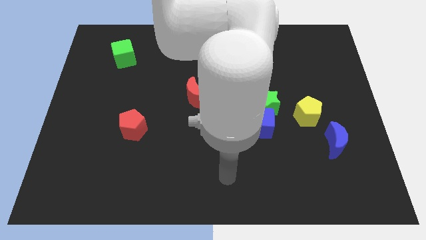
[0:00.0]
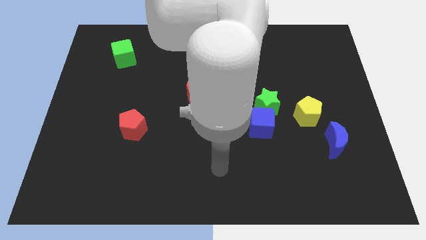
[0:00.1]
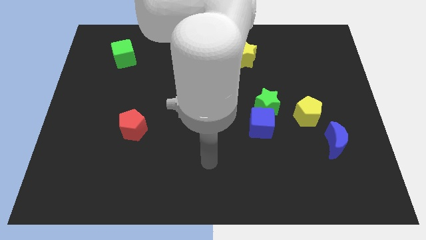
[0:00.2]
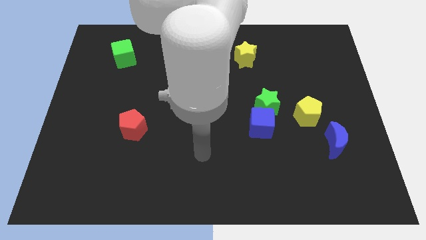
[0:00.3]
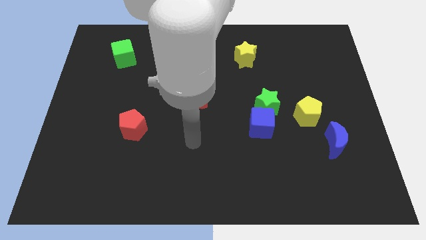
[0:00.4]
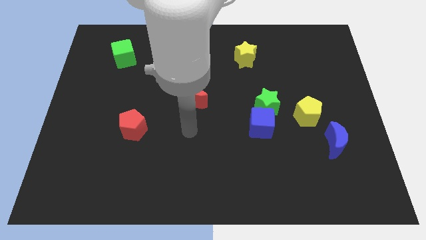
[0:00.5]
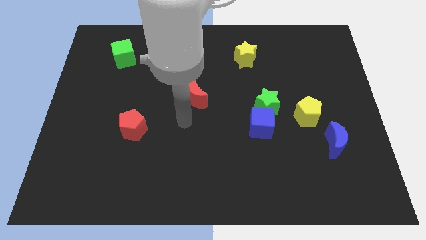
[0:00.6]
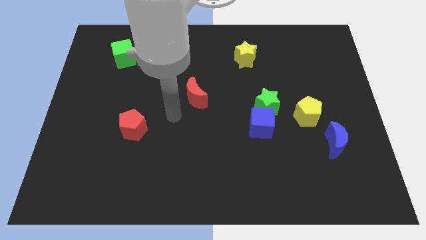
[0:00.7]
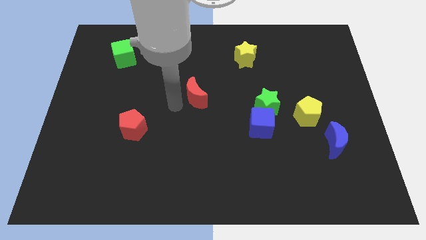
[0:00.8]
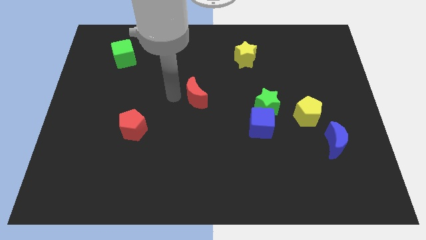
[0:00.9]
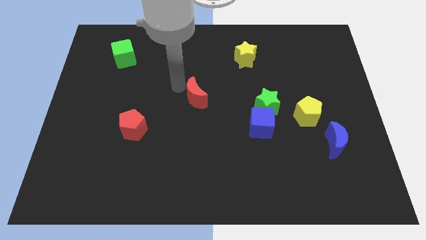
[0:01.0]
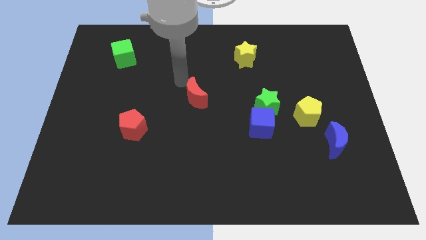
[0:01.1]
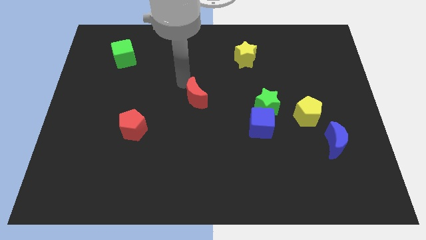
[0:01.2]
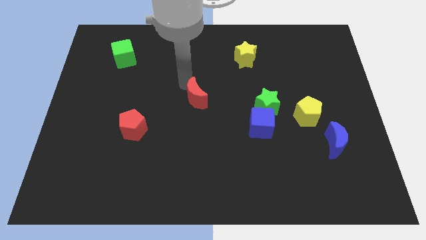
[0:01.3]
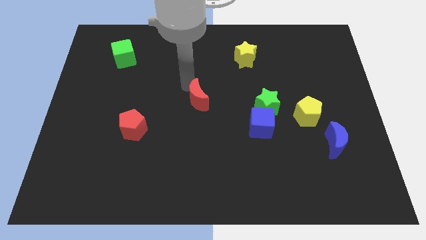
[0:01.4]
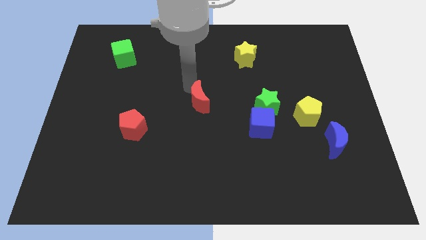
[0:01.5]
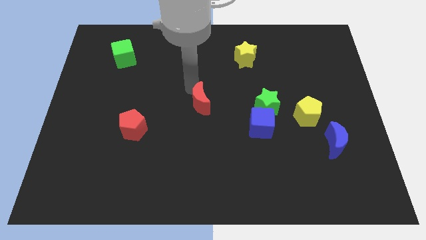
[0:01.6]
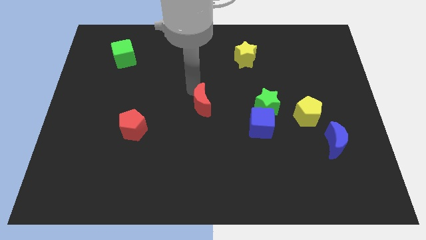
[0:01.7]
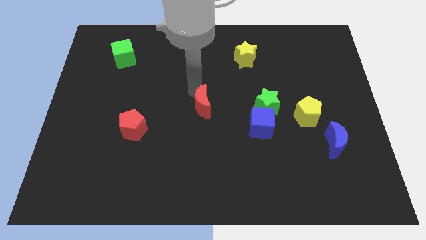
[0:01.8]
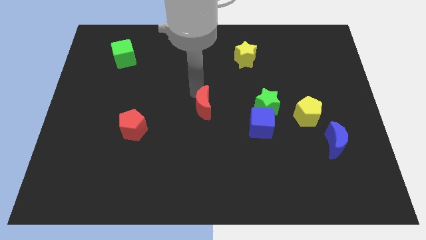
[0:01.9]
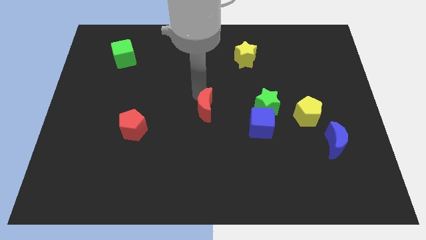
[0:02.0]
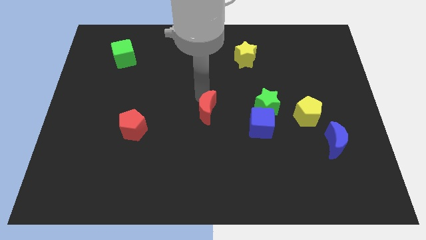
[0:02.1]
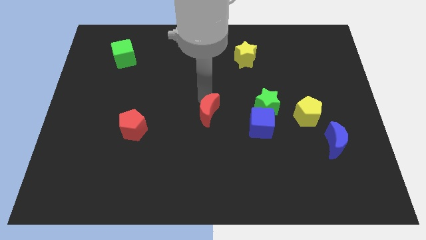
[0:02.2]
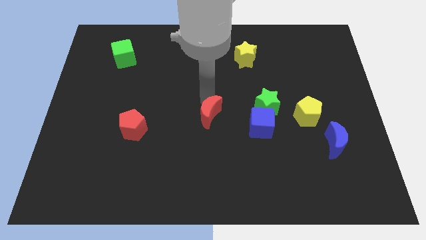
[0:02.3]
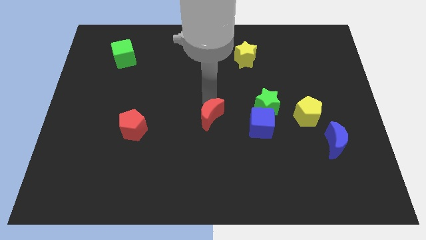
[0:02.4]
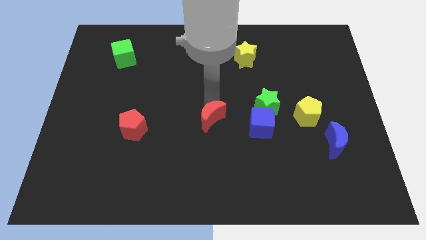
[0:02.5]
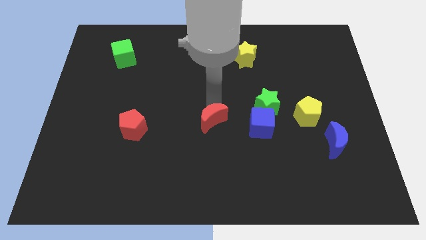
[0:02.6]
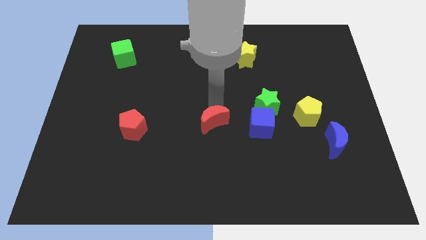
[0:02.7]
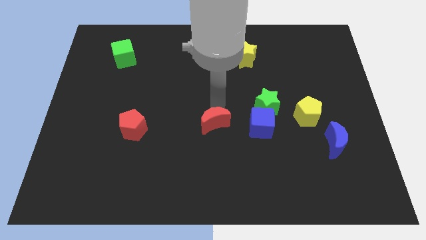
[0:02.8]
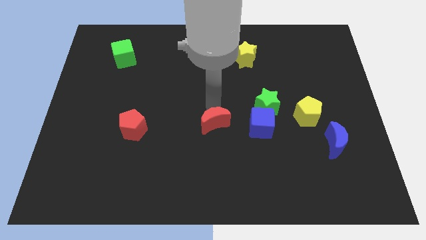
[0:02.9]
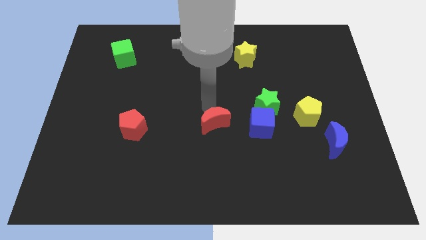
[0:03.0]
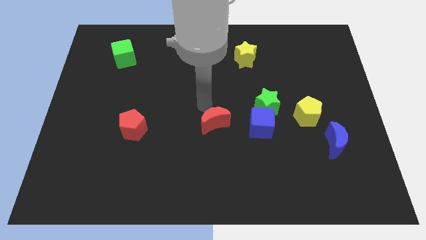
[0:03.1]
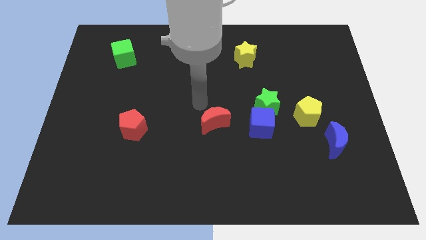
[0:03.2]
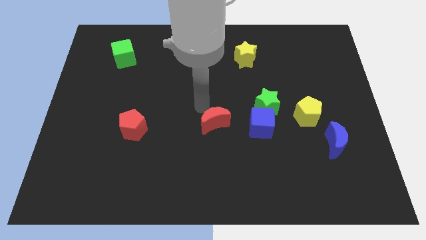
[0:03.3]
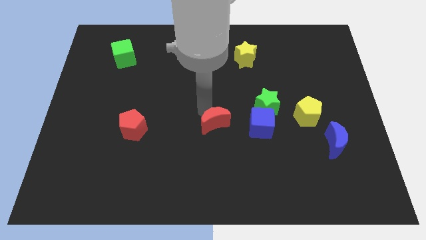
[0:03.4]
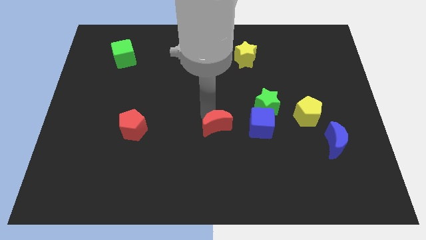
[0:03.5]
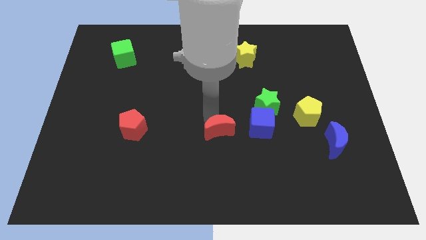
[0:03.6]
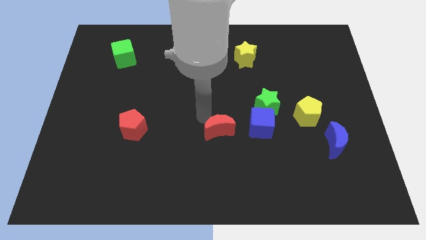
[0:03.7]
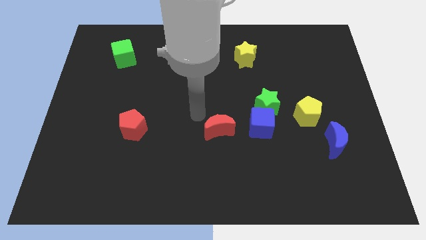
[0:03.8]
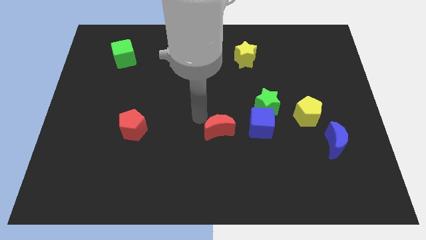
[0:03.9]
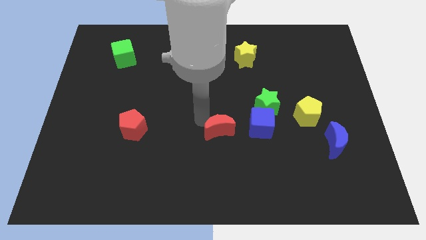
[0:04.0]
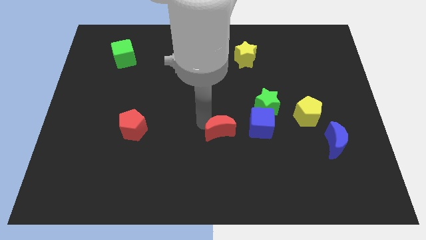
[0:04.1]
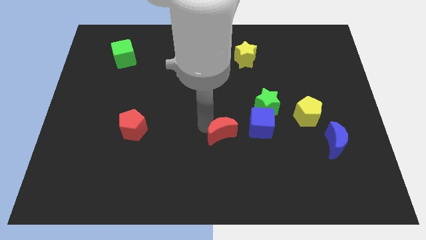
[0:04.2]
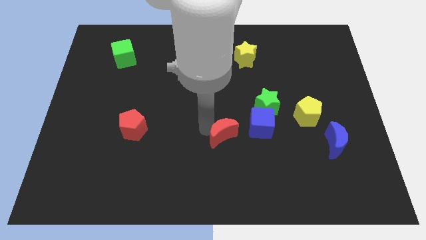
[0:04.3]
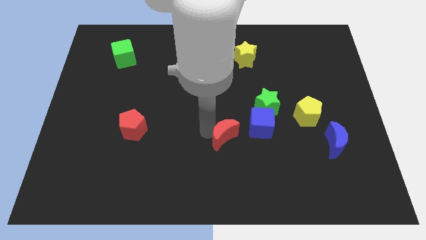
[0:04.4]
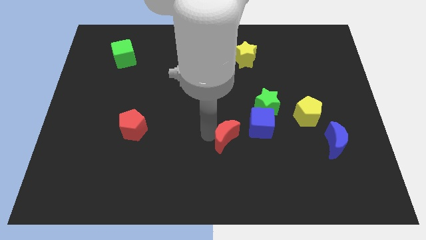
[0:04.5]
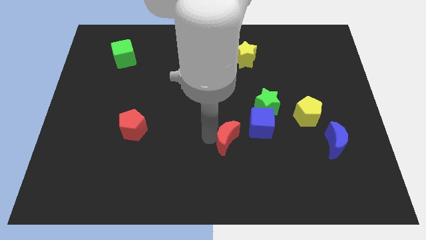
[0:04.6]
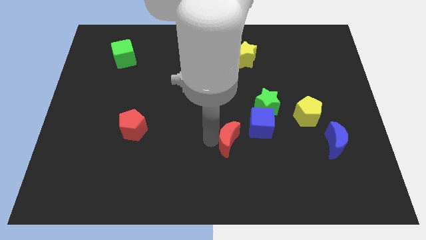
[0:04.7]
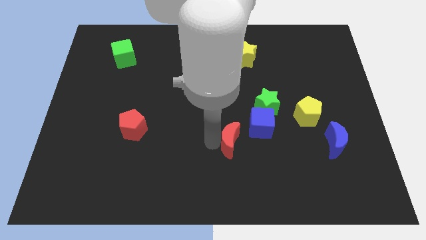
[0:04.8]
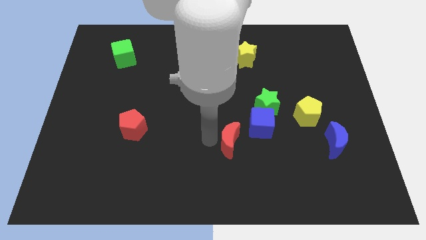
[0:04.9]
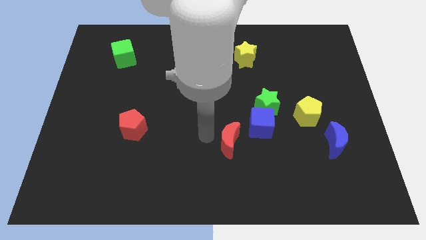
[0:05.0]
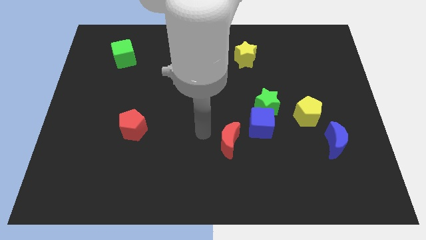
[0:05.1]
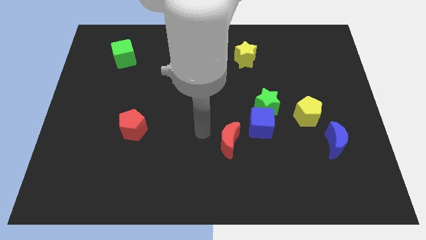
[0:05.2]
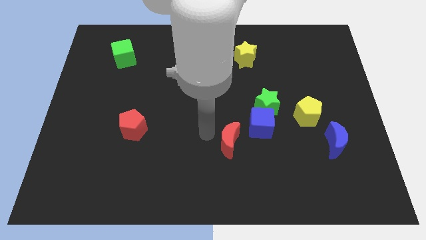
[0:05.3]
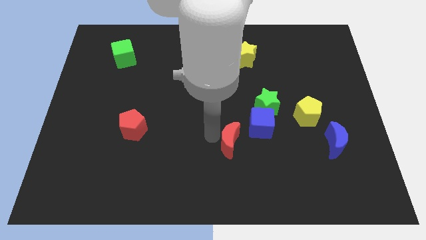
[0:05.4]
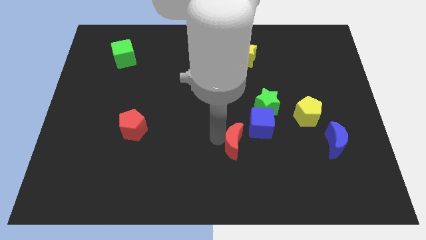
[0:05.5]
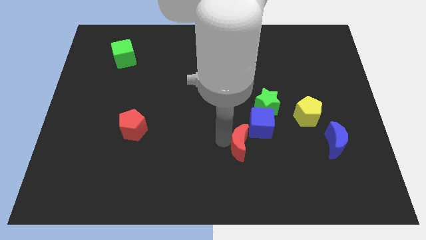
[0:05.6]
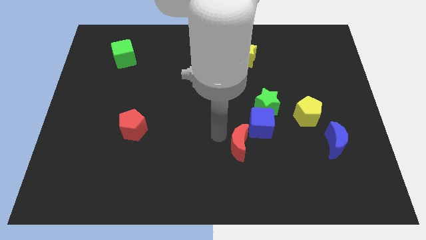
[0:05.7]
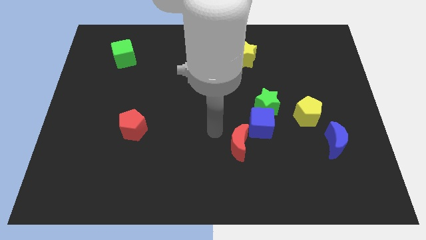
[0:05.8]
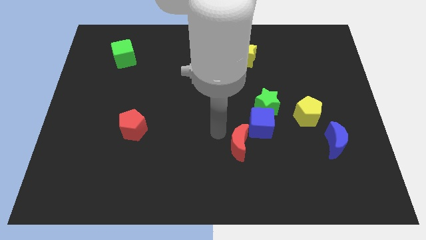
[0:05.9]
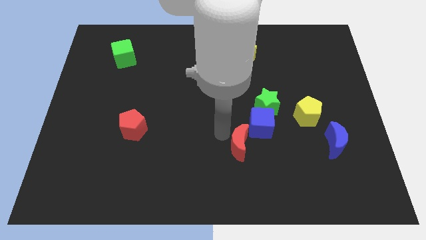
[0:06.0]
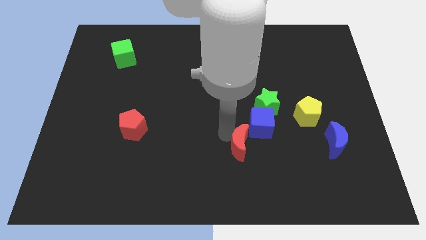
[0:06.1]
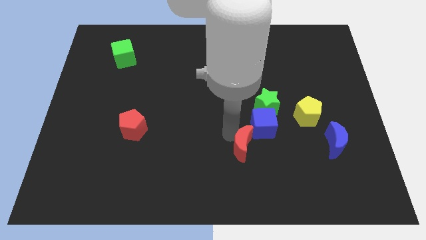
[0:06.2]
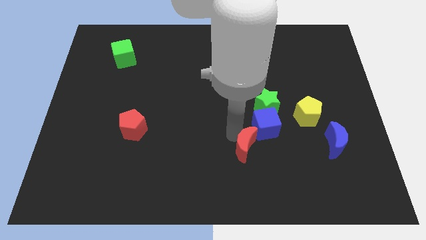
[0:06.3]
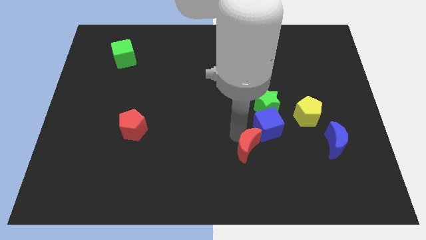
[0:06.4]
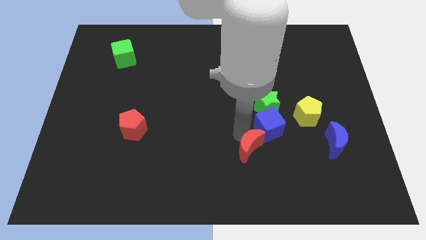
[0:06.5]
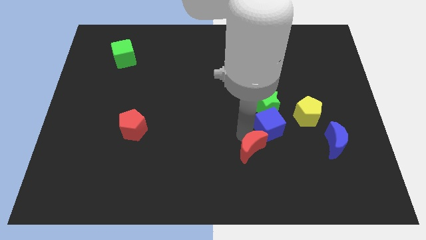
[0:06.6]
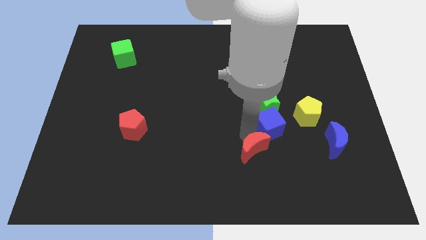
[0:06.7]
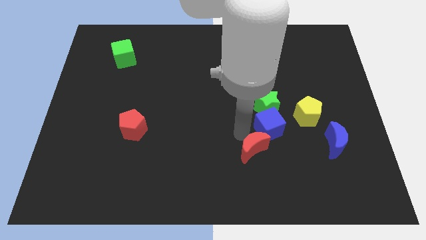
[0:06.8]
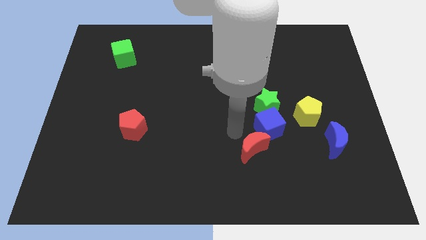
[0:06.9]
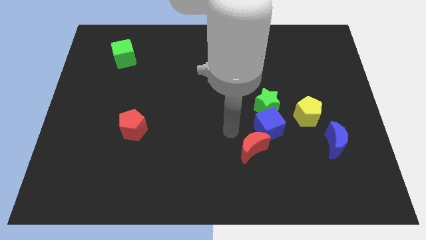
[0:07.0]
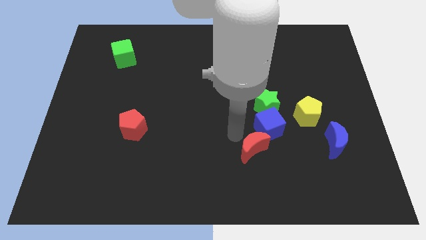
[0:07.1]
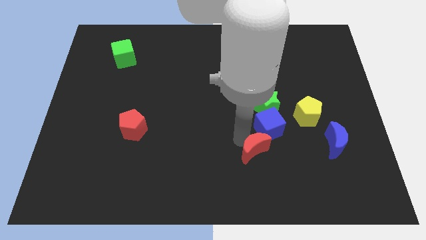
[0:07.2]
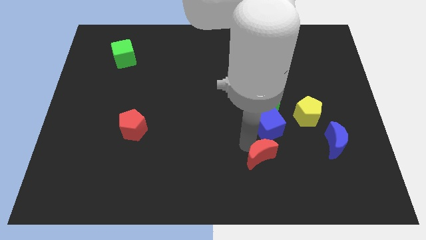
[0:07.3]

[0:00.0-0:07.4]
move the red moon diagonally down and right

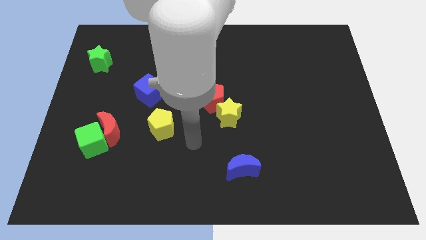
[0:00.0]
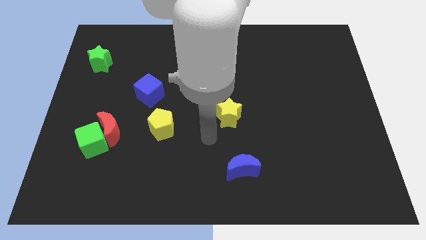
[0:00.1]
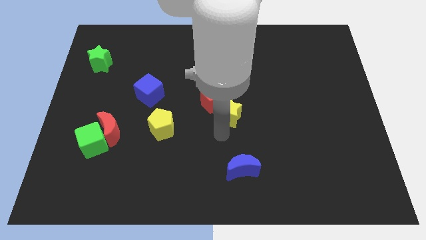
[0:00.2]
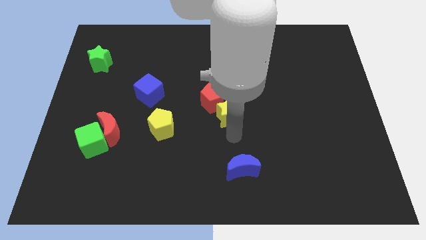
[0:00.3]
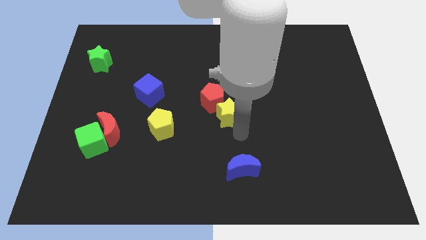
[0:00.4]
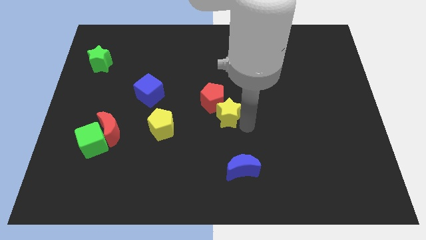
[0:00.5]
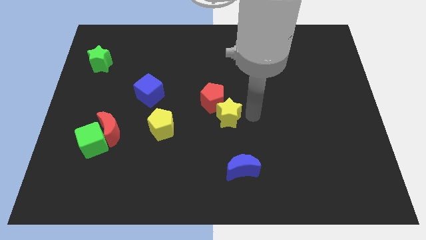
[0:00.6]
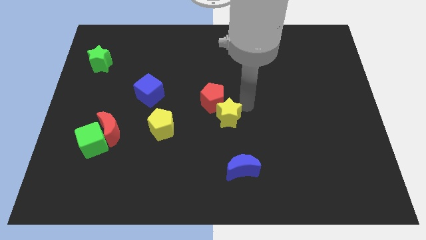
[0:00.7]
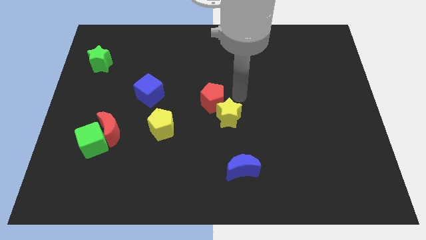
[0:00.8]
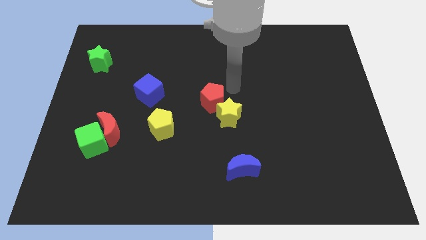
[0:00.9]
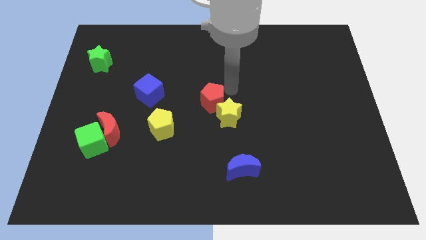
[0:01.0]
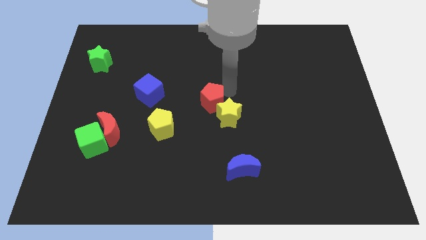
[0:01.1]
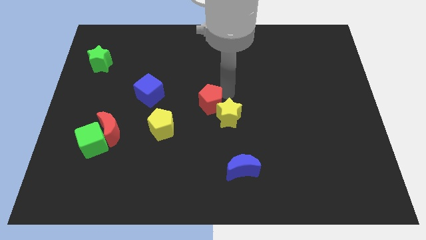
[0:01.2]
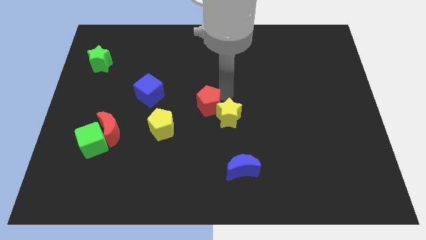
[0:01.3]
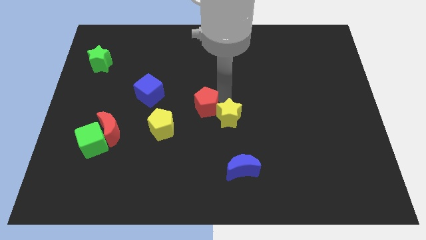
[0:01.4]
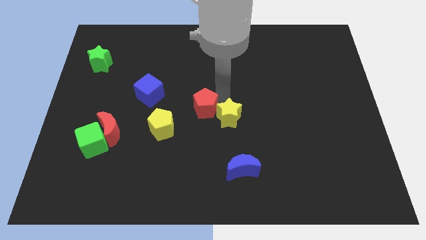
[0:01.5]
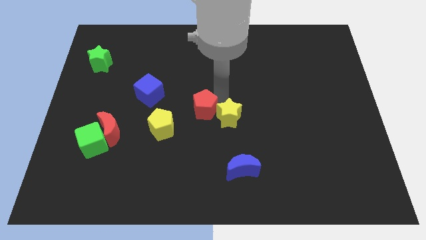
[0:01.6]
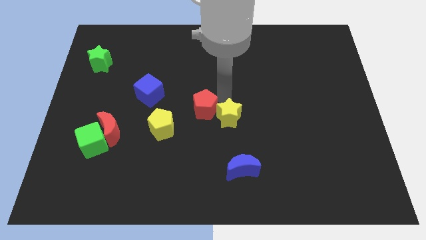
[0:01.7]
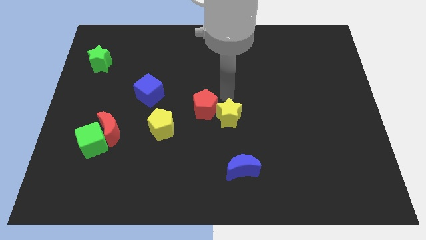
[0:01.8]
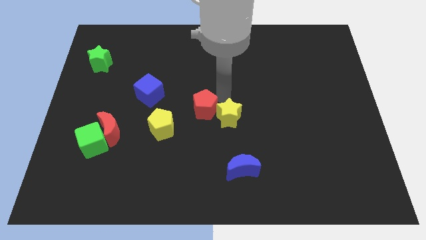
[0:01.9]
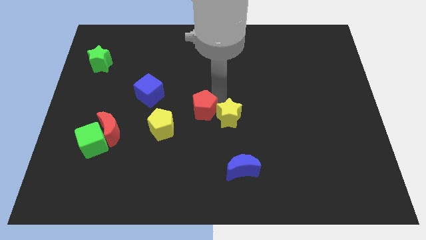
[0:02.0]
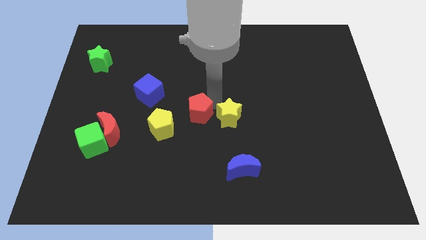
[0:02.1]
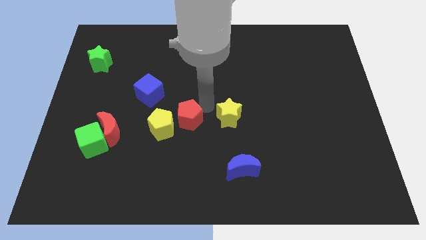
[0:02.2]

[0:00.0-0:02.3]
push the red pentagon somewhat downwards and left
